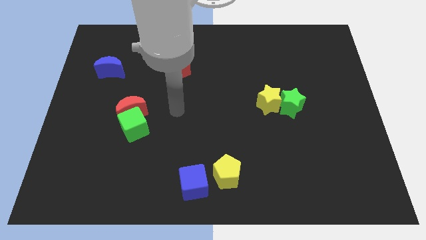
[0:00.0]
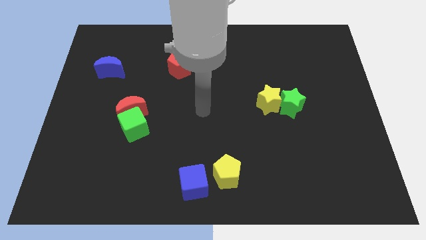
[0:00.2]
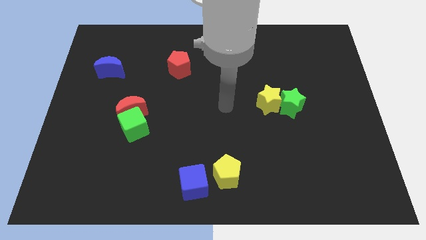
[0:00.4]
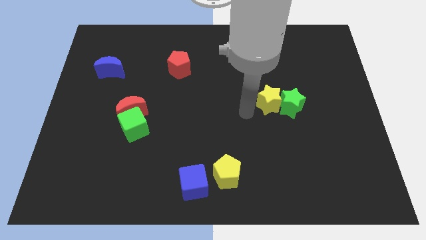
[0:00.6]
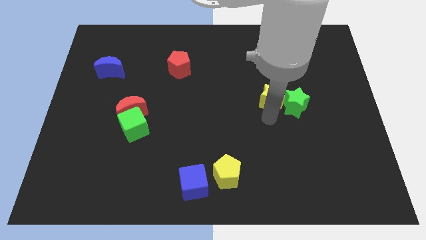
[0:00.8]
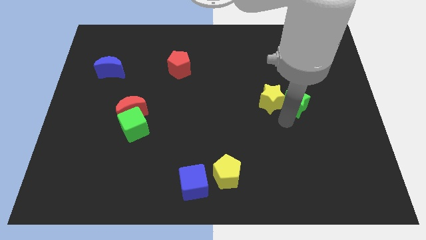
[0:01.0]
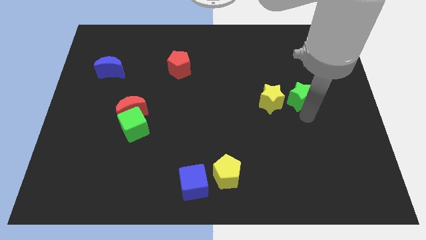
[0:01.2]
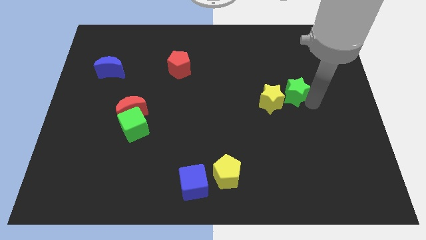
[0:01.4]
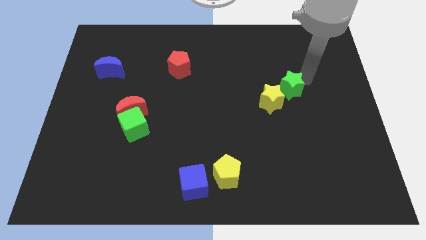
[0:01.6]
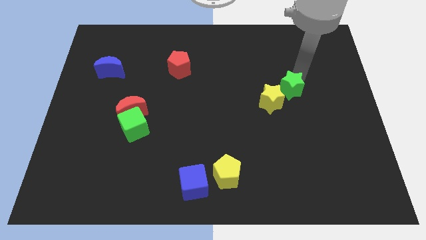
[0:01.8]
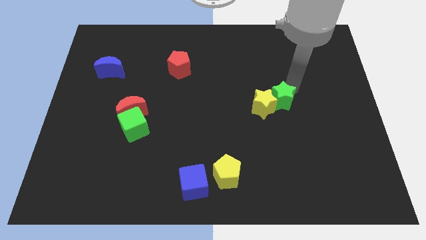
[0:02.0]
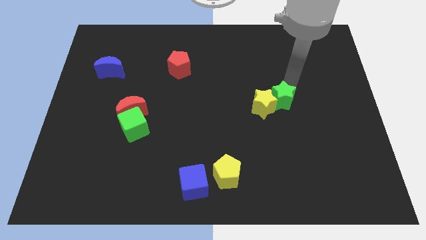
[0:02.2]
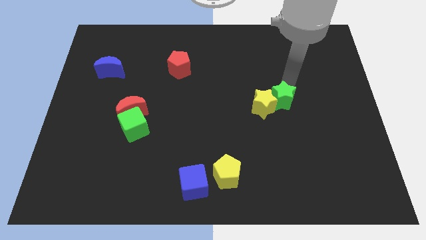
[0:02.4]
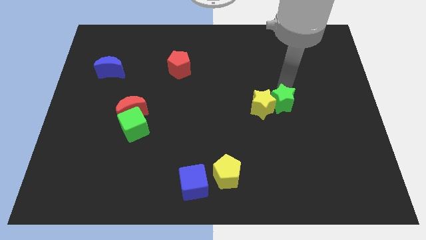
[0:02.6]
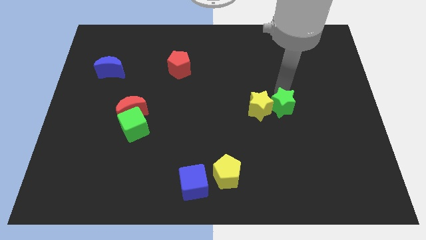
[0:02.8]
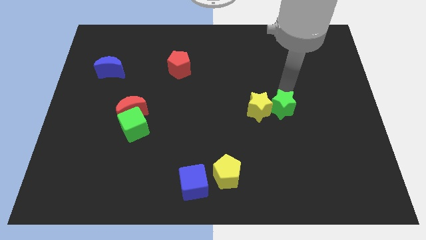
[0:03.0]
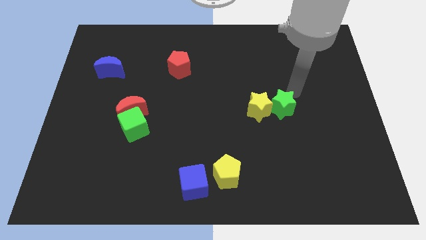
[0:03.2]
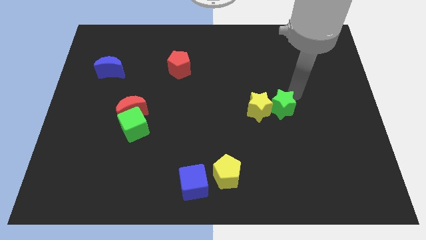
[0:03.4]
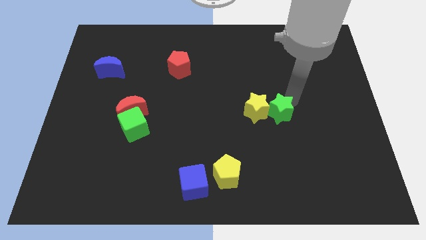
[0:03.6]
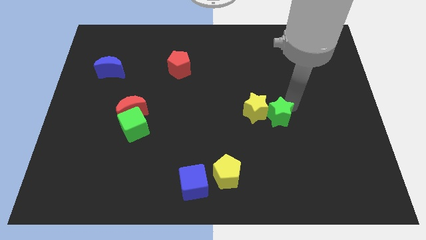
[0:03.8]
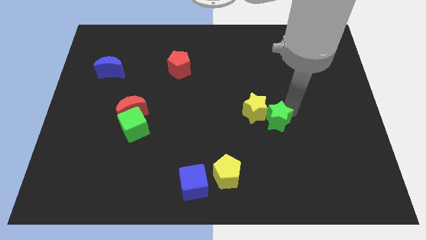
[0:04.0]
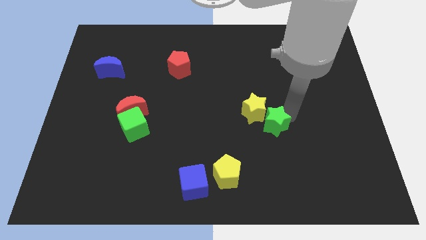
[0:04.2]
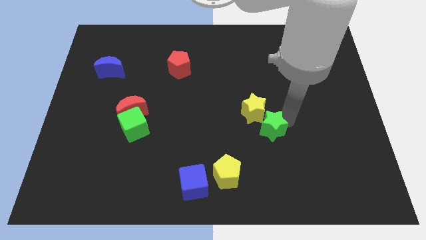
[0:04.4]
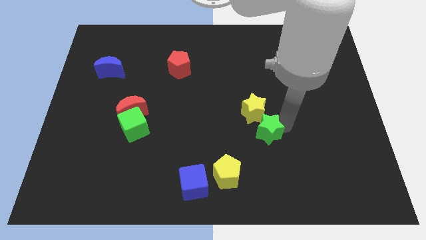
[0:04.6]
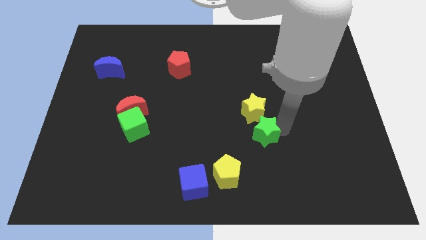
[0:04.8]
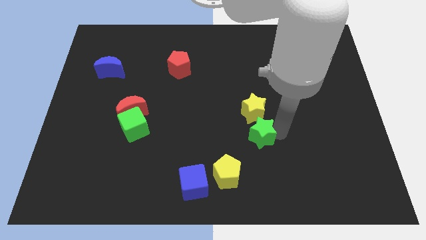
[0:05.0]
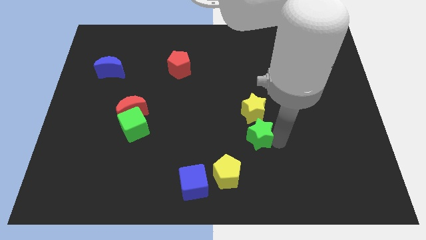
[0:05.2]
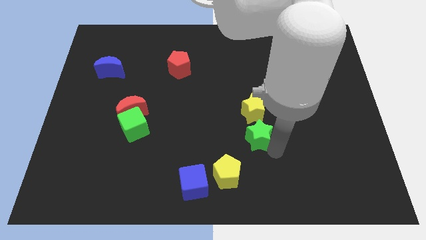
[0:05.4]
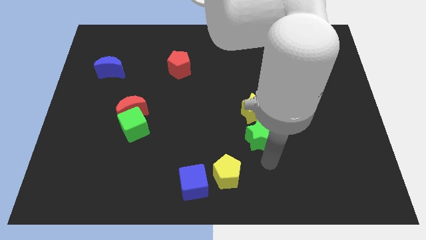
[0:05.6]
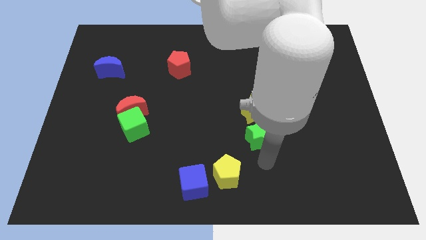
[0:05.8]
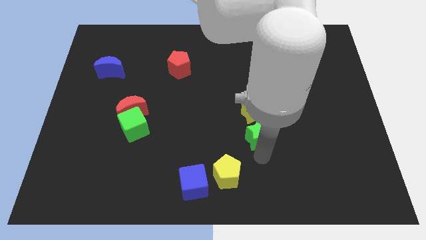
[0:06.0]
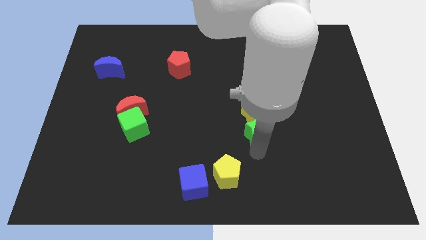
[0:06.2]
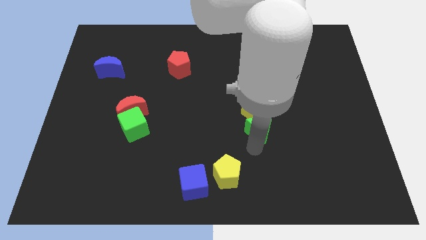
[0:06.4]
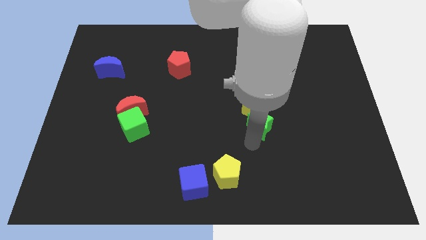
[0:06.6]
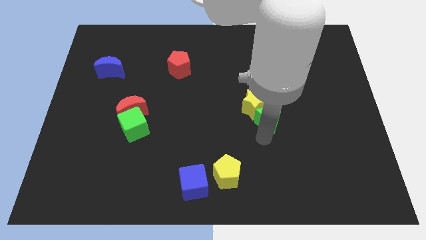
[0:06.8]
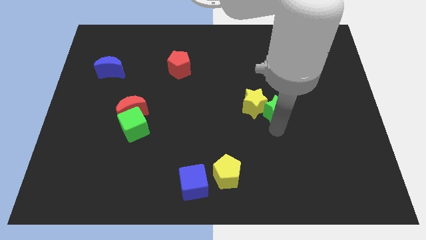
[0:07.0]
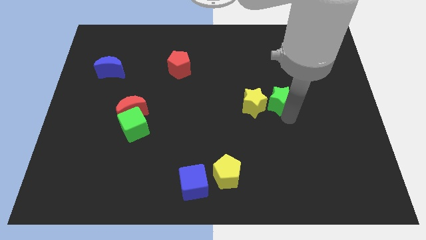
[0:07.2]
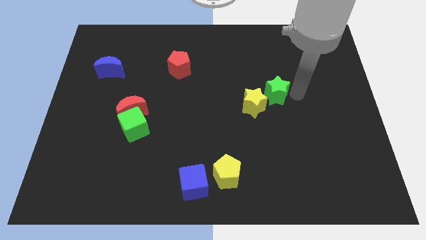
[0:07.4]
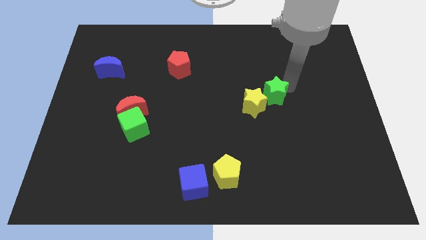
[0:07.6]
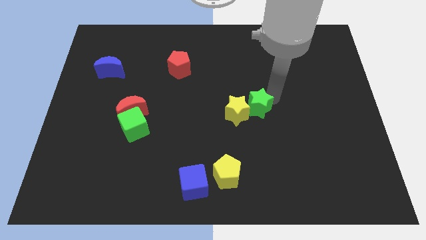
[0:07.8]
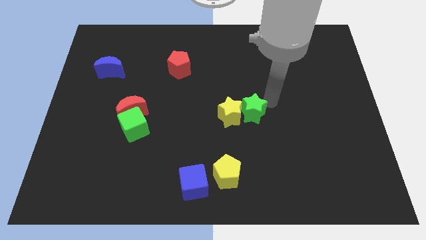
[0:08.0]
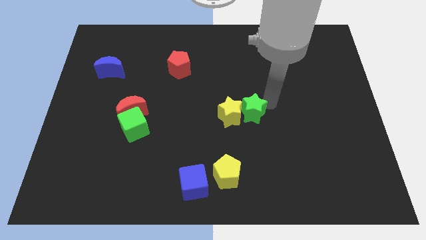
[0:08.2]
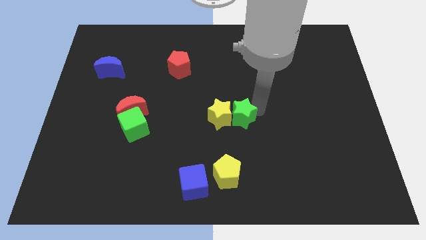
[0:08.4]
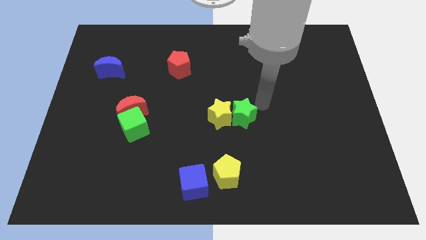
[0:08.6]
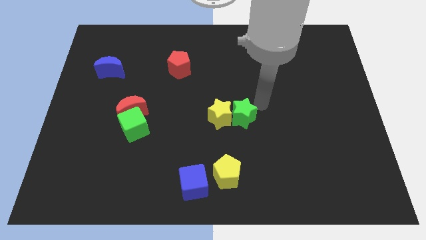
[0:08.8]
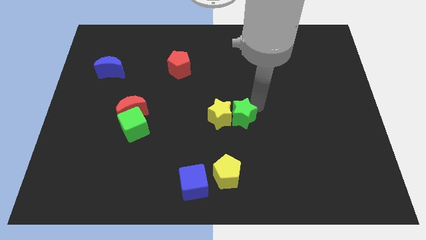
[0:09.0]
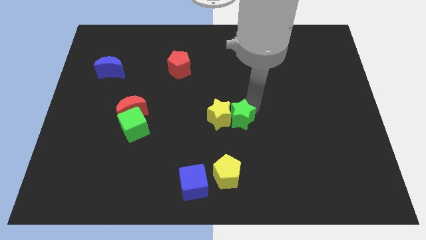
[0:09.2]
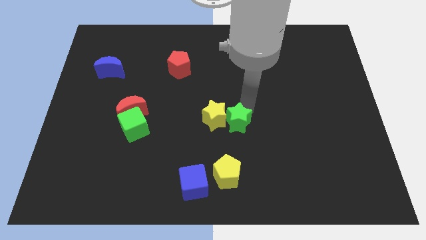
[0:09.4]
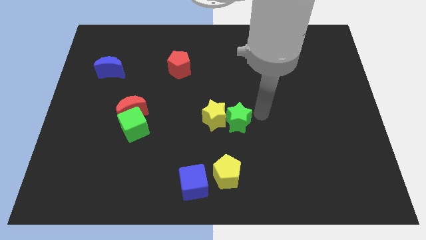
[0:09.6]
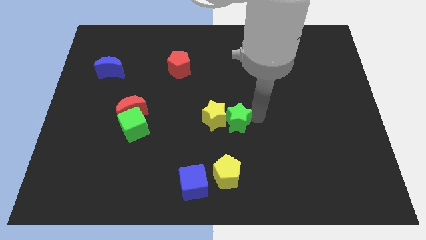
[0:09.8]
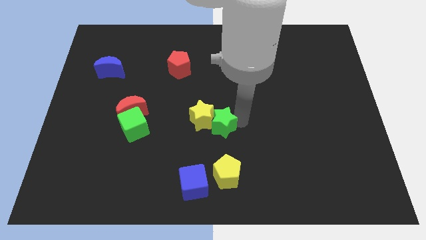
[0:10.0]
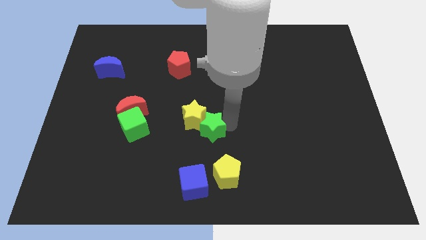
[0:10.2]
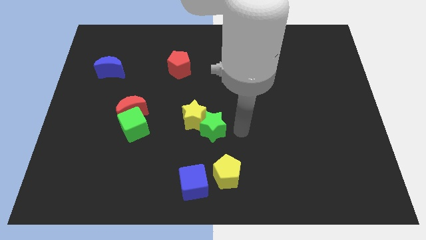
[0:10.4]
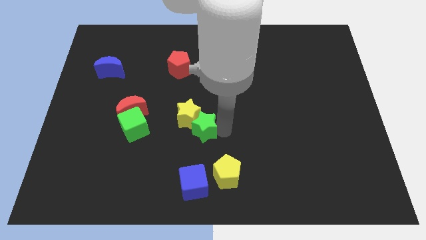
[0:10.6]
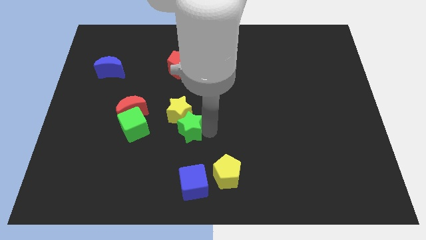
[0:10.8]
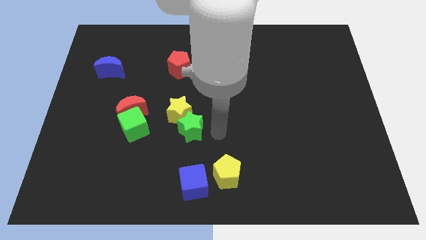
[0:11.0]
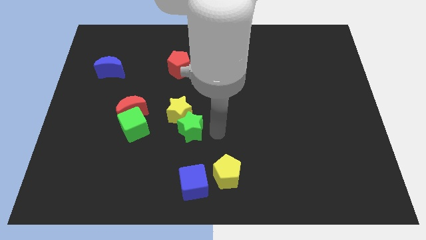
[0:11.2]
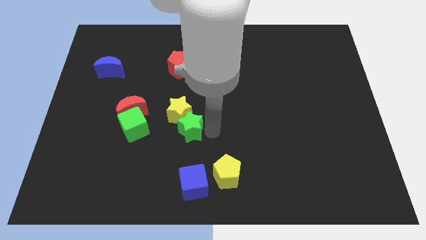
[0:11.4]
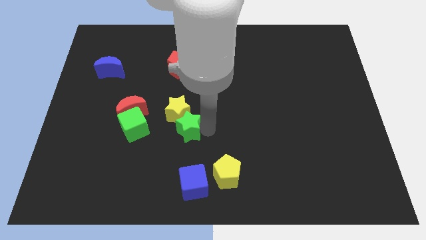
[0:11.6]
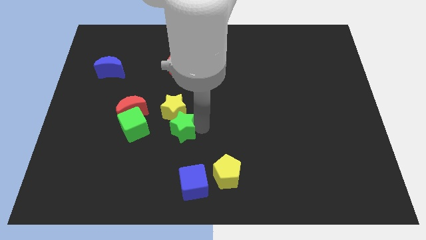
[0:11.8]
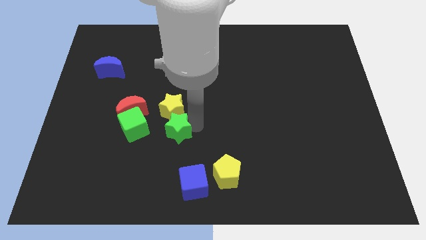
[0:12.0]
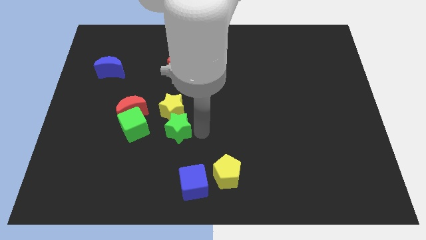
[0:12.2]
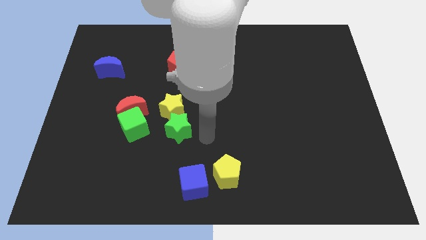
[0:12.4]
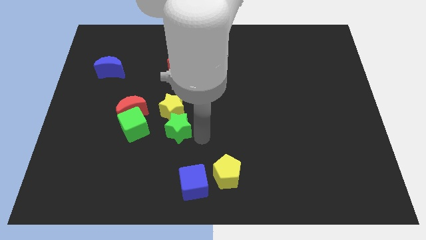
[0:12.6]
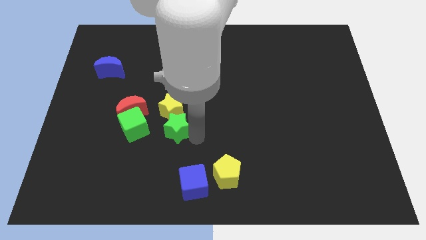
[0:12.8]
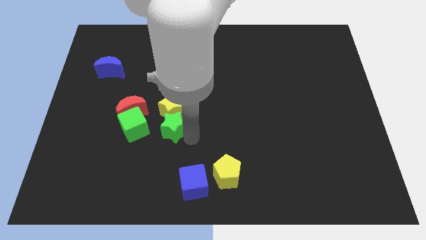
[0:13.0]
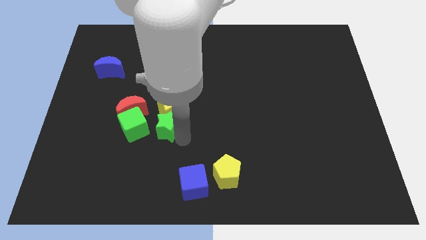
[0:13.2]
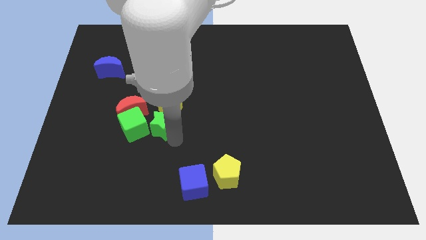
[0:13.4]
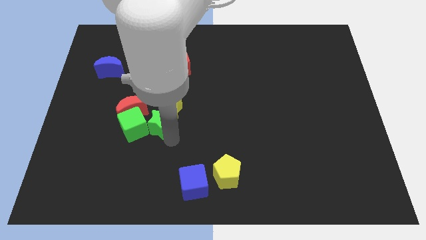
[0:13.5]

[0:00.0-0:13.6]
slide the green star close to the green cube
